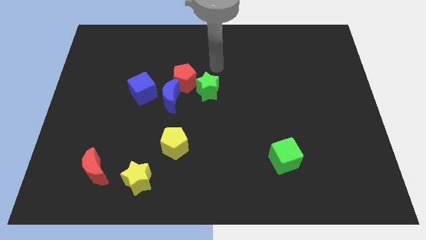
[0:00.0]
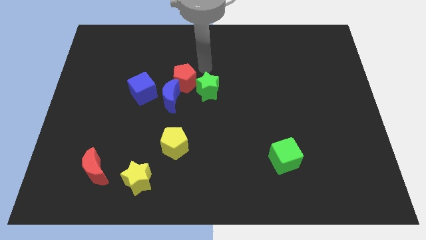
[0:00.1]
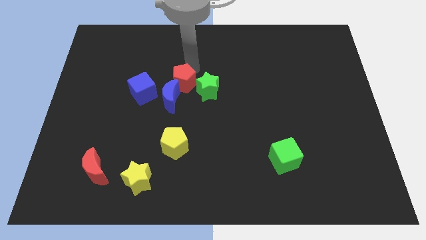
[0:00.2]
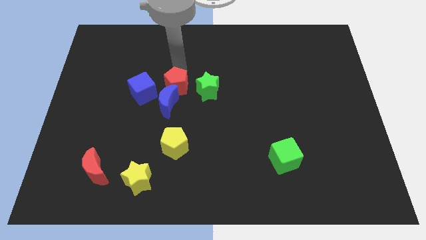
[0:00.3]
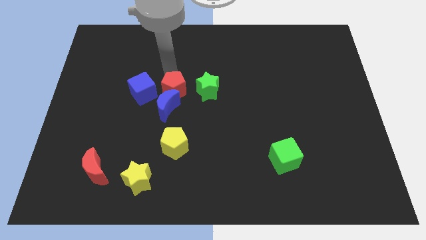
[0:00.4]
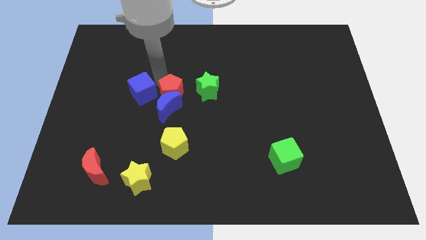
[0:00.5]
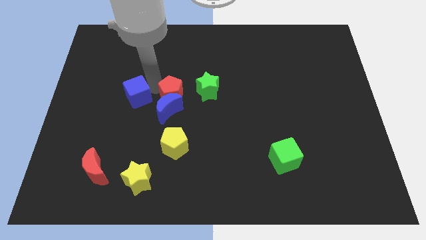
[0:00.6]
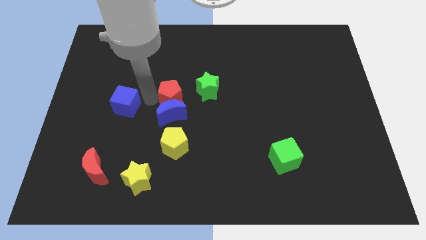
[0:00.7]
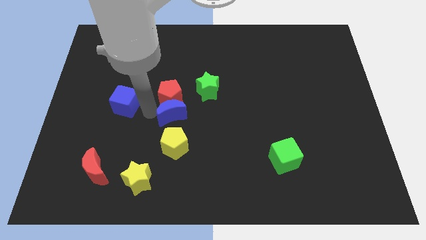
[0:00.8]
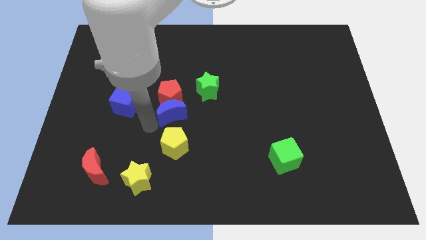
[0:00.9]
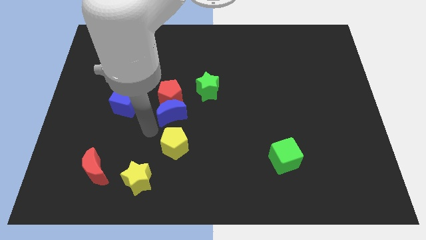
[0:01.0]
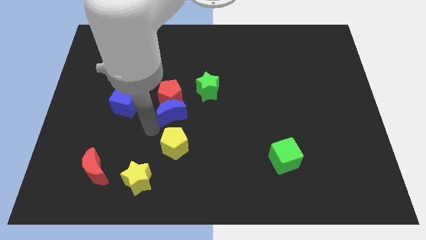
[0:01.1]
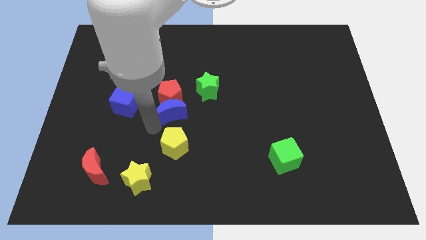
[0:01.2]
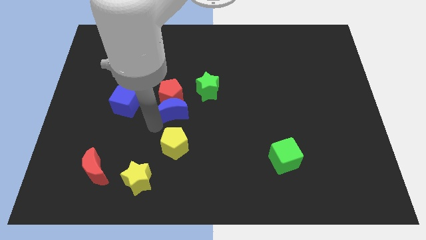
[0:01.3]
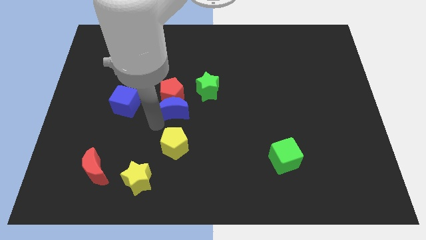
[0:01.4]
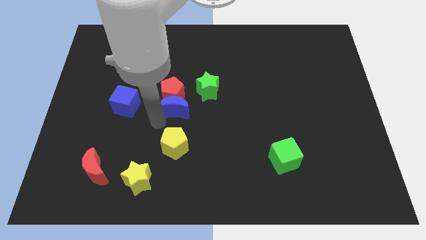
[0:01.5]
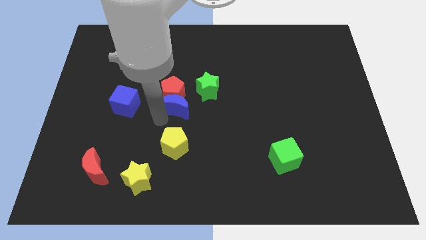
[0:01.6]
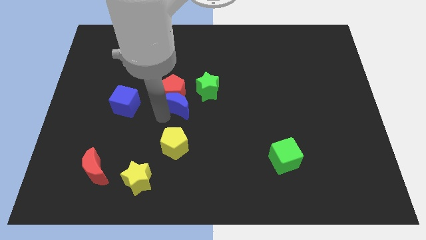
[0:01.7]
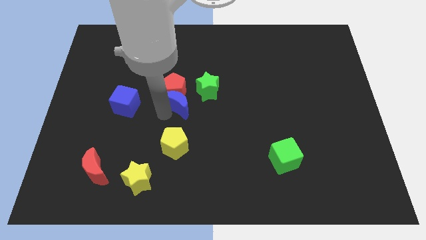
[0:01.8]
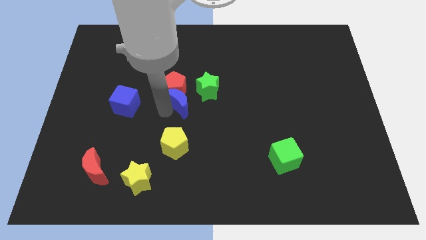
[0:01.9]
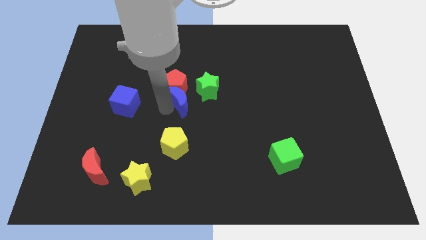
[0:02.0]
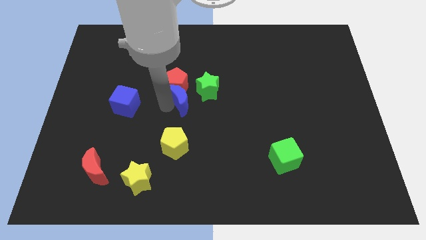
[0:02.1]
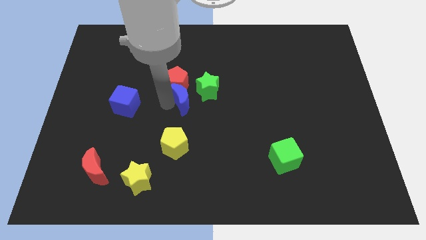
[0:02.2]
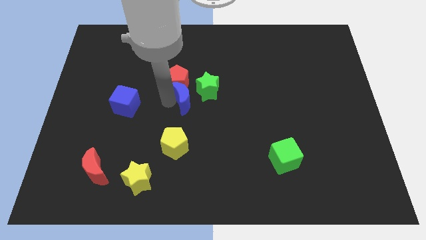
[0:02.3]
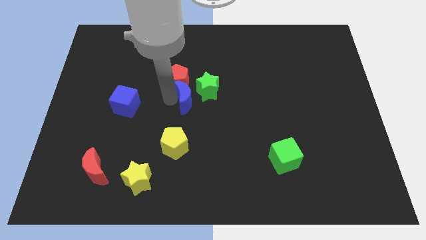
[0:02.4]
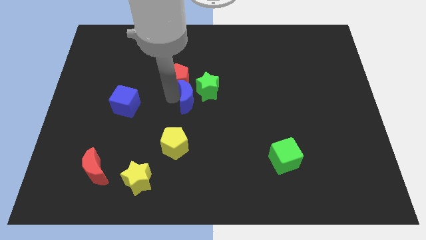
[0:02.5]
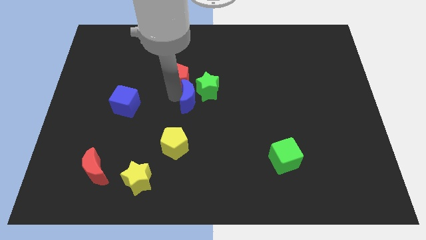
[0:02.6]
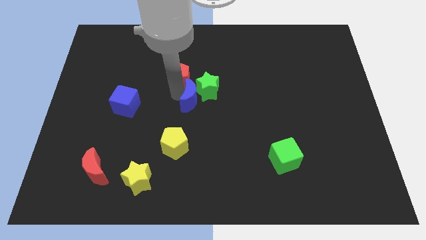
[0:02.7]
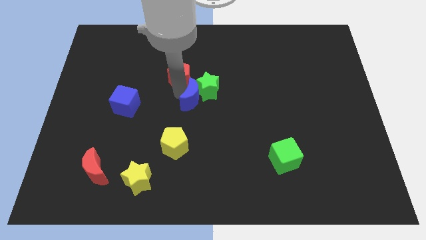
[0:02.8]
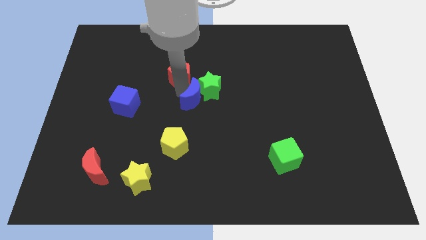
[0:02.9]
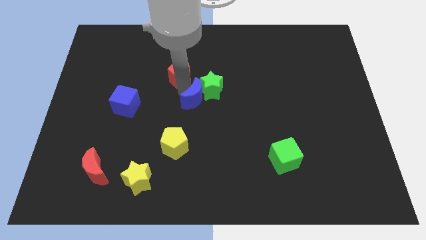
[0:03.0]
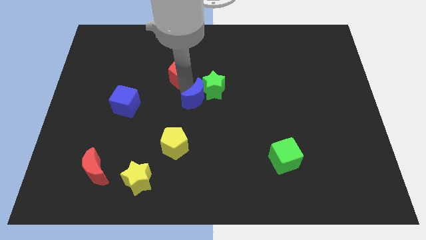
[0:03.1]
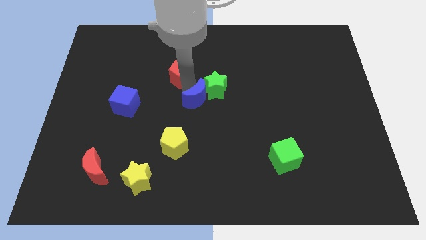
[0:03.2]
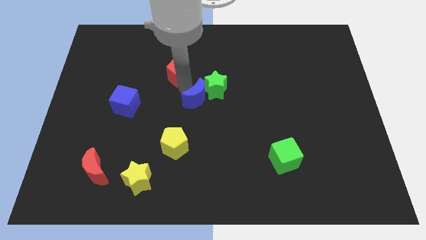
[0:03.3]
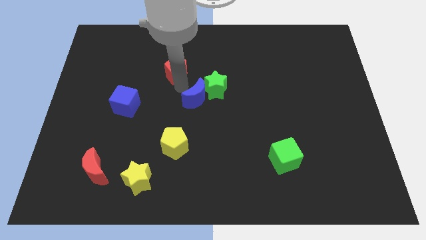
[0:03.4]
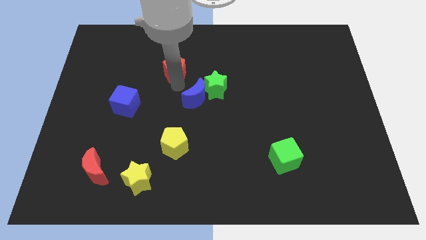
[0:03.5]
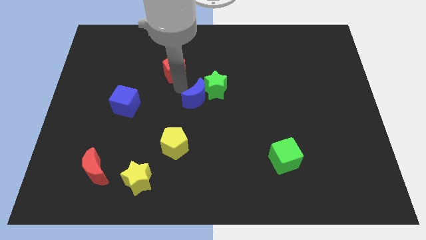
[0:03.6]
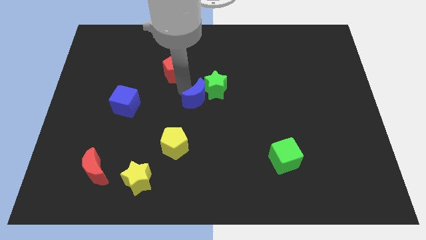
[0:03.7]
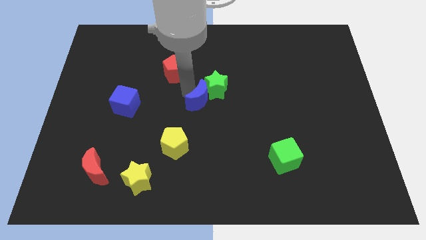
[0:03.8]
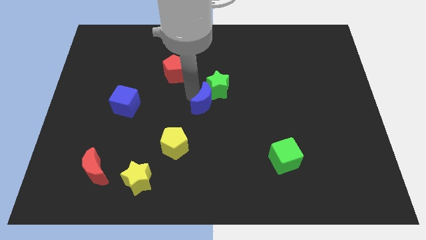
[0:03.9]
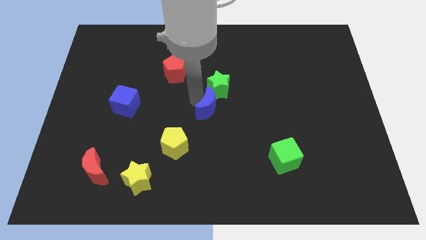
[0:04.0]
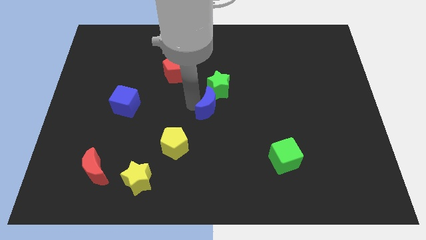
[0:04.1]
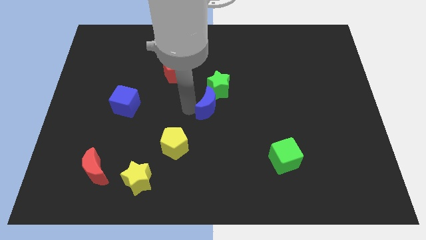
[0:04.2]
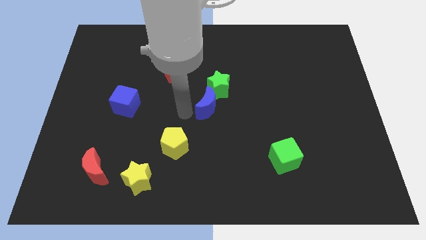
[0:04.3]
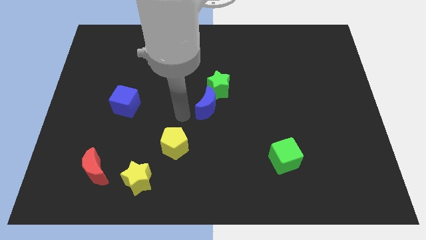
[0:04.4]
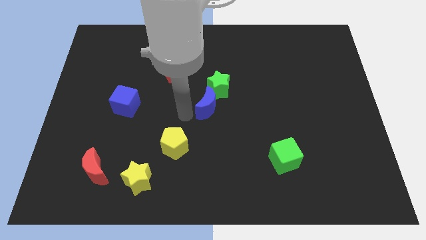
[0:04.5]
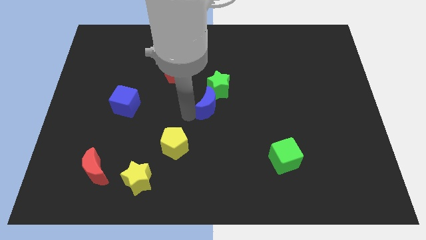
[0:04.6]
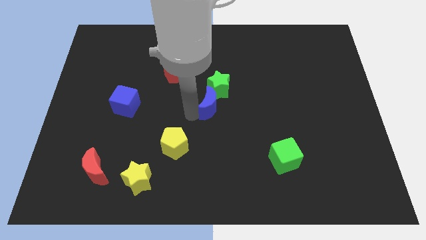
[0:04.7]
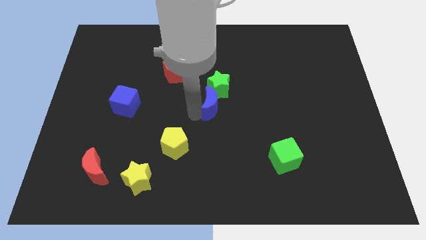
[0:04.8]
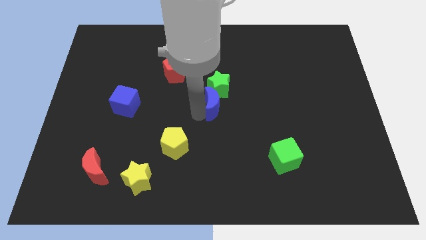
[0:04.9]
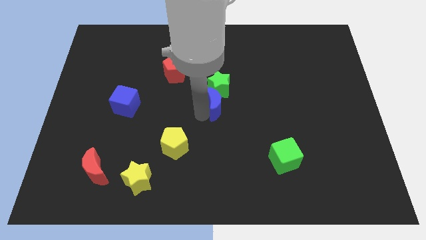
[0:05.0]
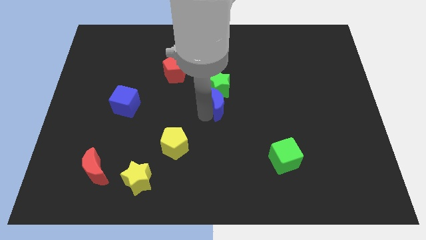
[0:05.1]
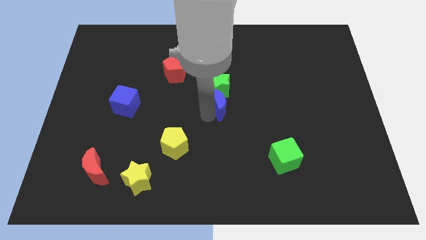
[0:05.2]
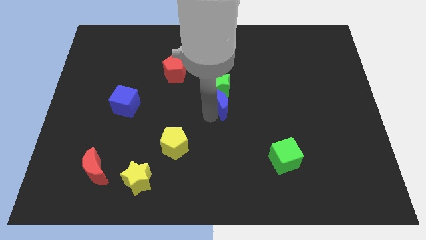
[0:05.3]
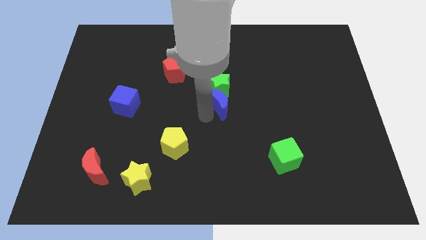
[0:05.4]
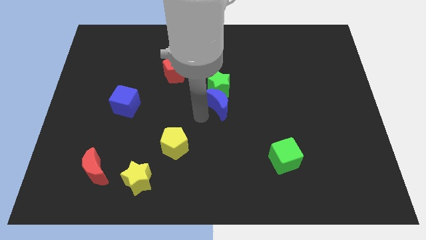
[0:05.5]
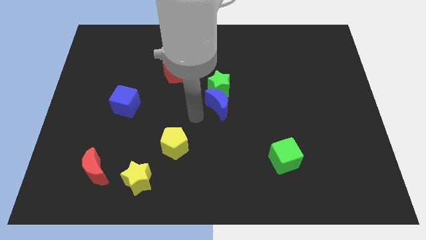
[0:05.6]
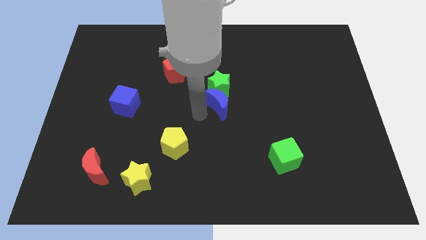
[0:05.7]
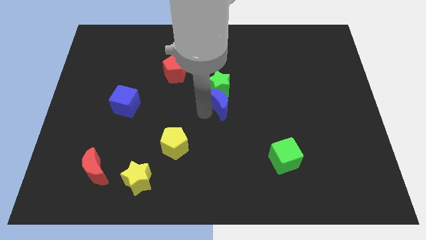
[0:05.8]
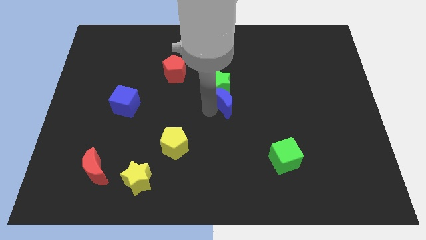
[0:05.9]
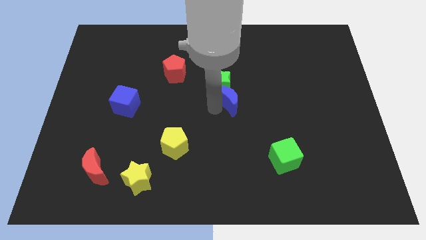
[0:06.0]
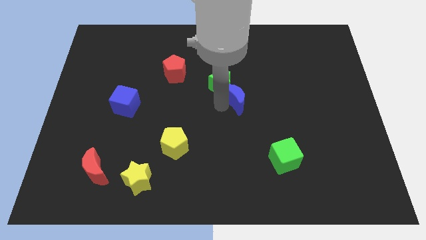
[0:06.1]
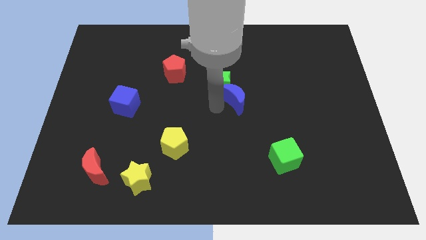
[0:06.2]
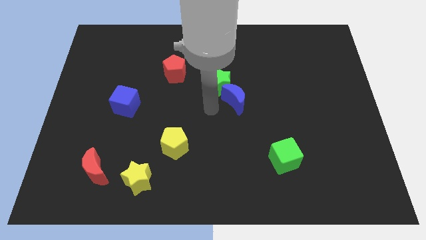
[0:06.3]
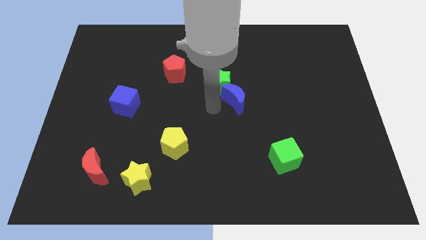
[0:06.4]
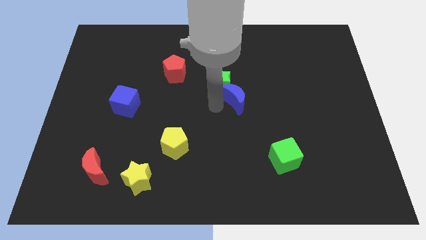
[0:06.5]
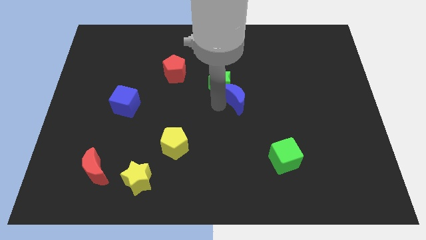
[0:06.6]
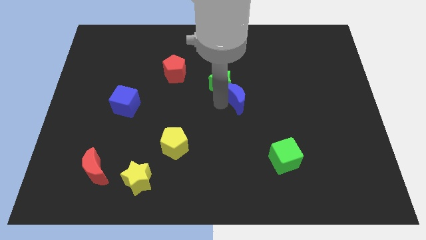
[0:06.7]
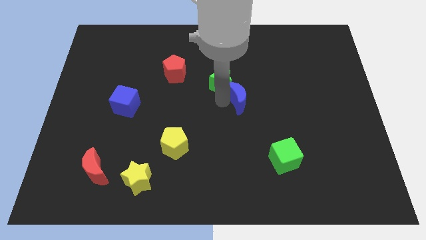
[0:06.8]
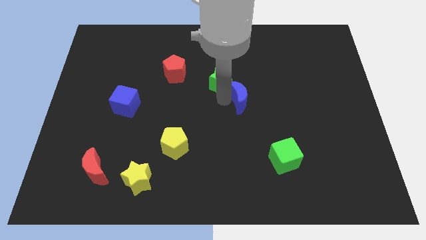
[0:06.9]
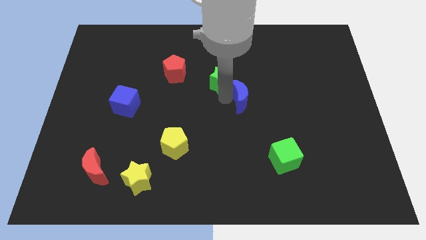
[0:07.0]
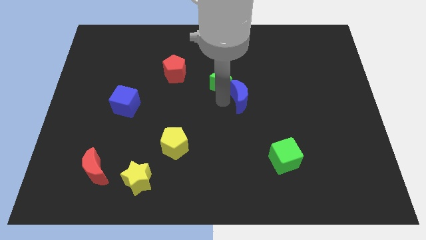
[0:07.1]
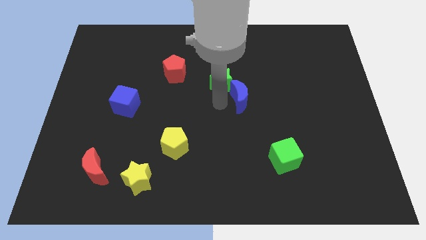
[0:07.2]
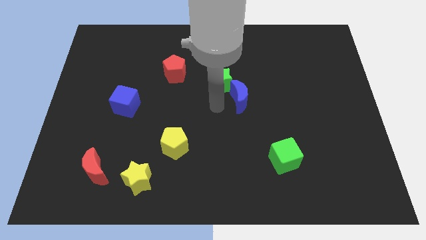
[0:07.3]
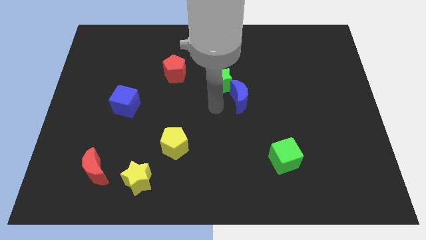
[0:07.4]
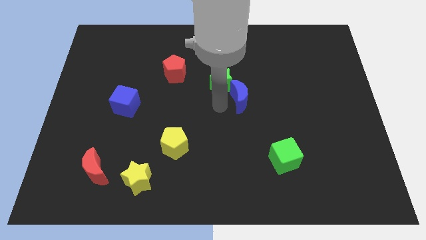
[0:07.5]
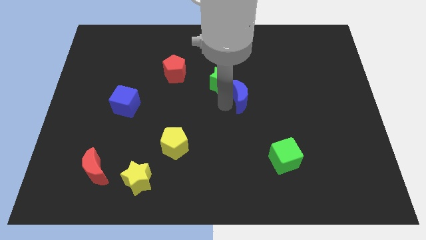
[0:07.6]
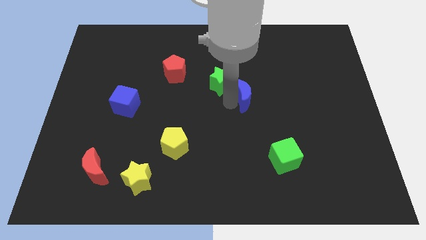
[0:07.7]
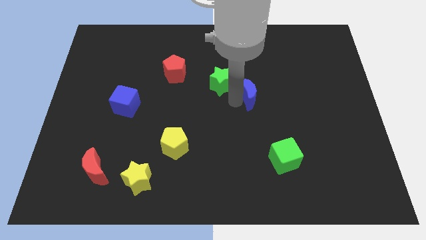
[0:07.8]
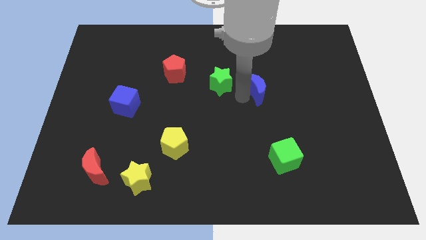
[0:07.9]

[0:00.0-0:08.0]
push the blue moon right
